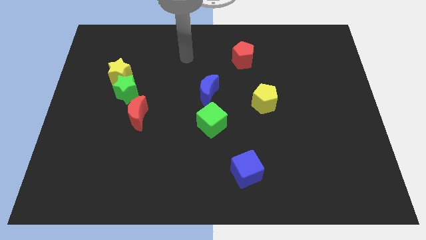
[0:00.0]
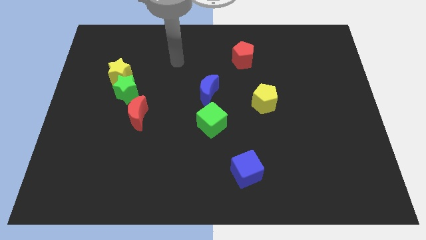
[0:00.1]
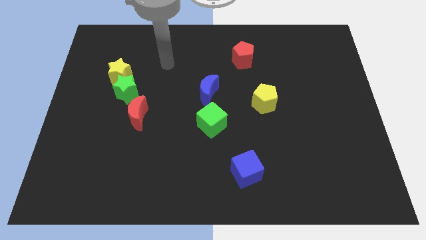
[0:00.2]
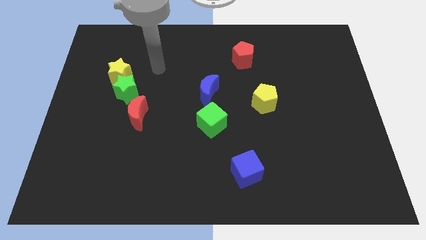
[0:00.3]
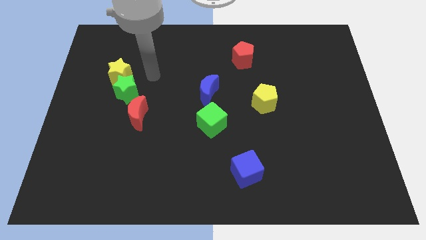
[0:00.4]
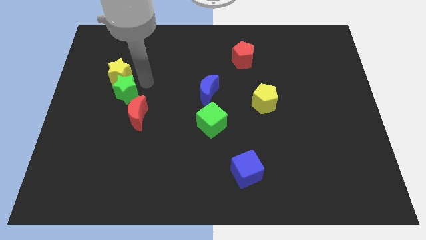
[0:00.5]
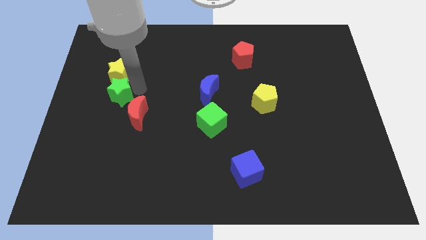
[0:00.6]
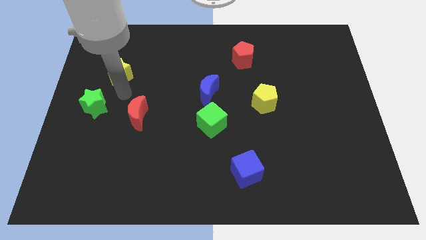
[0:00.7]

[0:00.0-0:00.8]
separate the yellow star from the green star

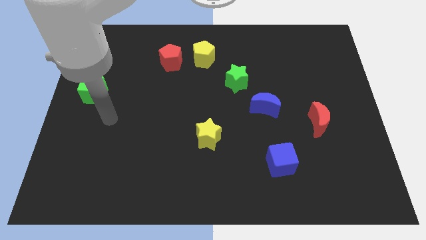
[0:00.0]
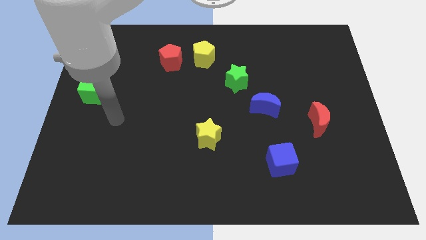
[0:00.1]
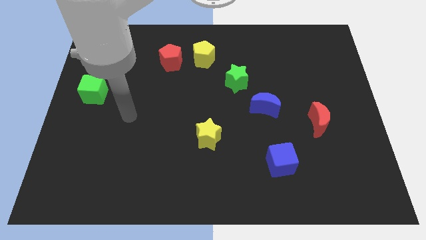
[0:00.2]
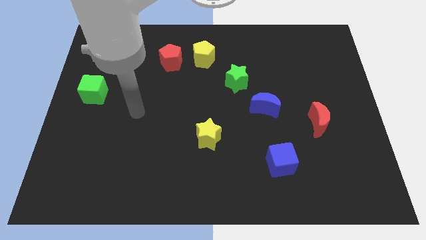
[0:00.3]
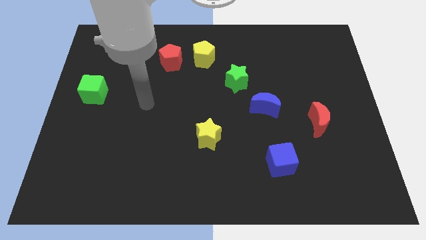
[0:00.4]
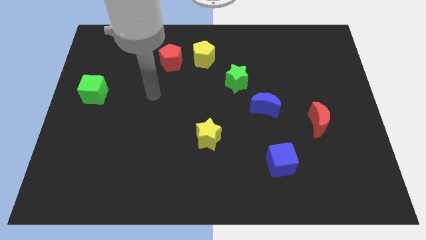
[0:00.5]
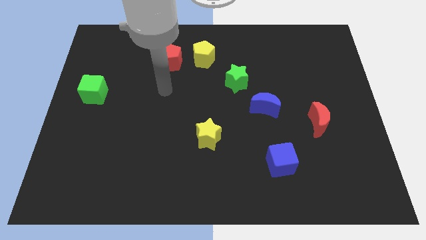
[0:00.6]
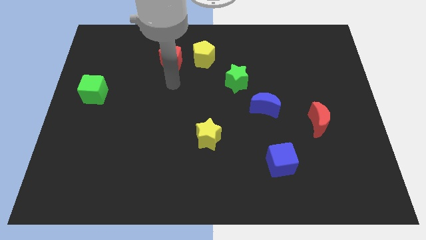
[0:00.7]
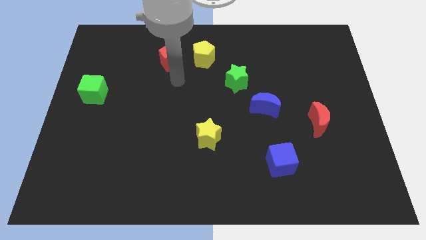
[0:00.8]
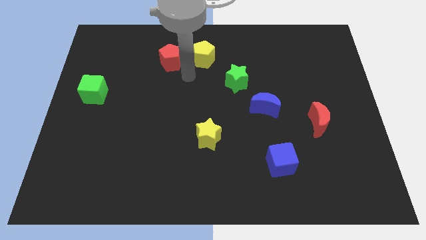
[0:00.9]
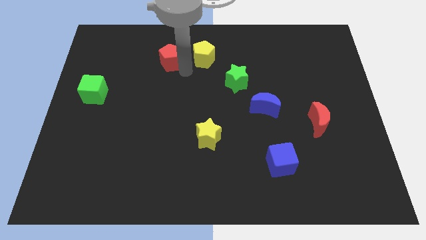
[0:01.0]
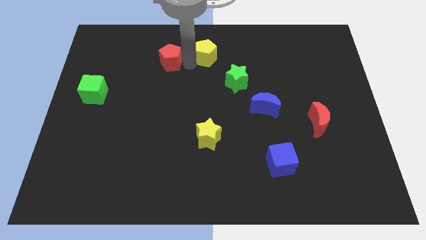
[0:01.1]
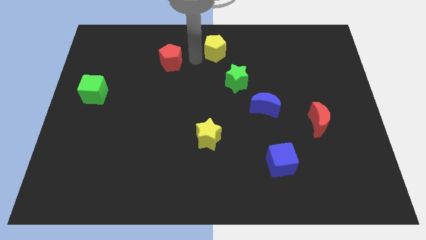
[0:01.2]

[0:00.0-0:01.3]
pull the red pentagon apart from the yellow pentagon

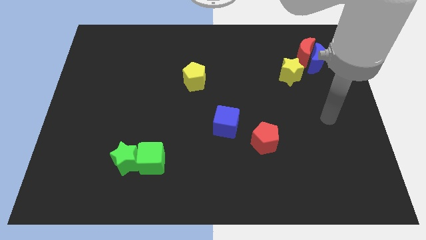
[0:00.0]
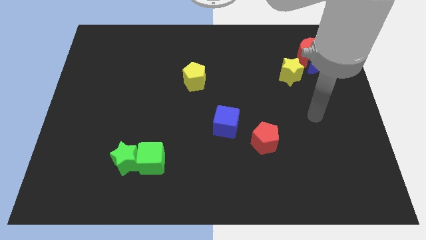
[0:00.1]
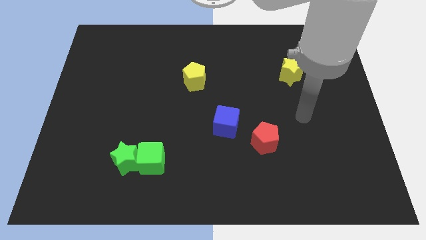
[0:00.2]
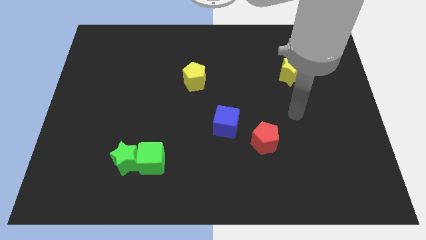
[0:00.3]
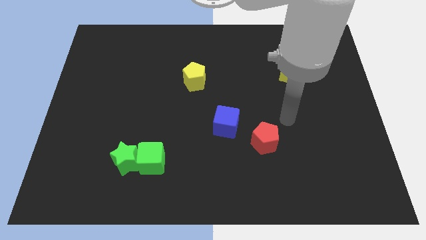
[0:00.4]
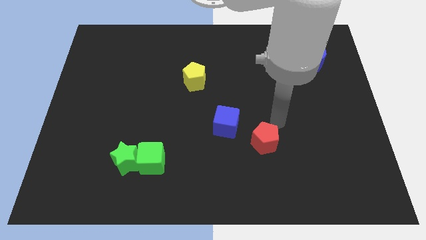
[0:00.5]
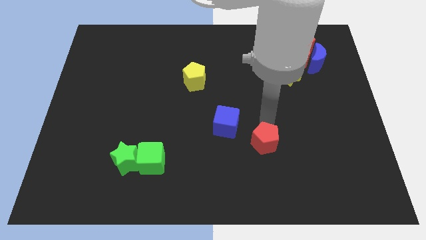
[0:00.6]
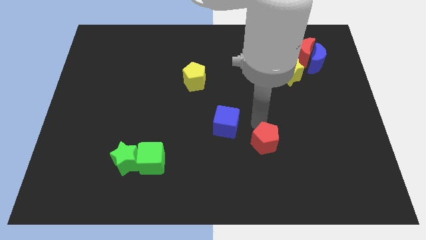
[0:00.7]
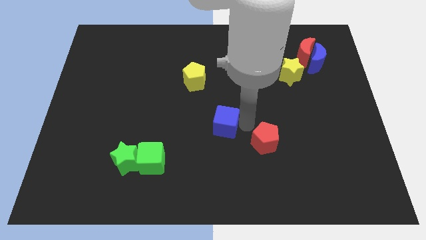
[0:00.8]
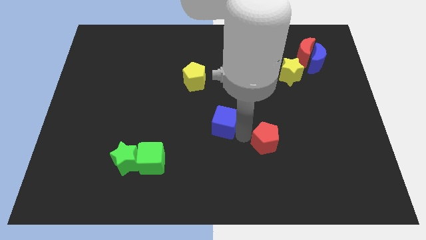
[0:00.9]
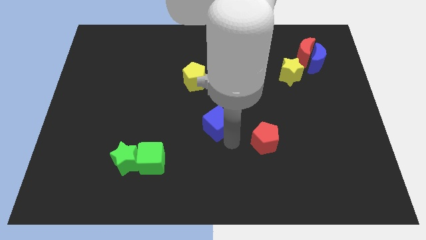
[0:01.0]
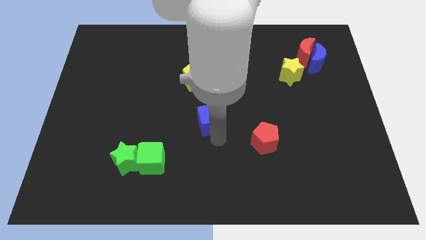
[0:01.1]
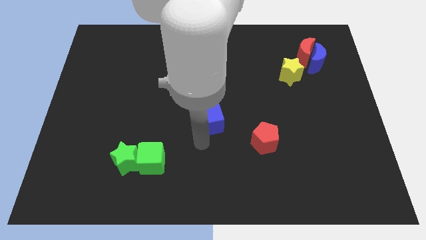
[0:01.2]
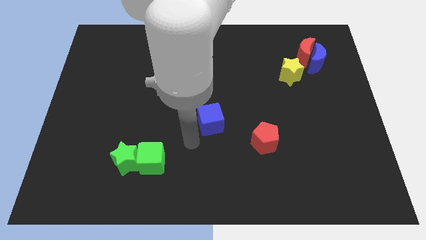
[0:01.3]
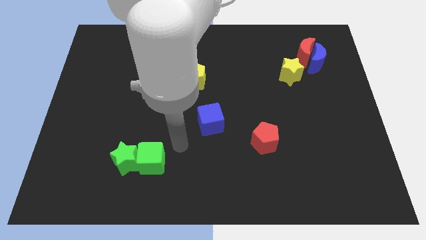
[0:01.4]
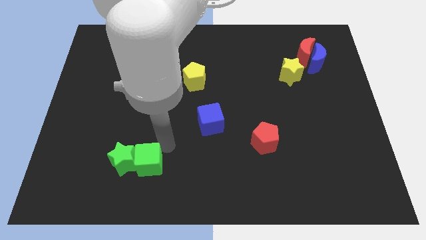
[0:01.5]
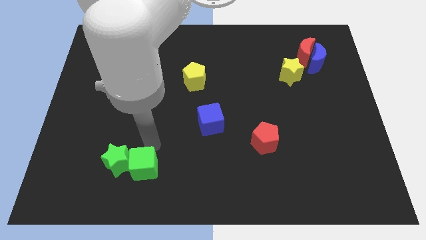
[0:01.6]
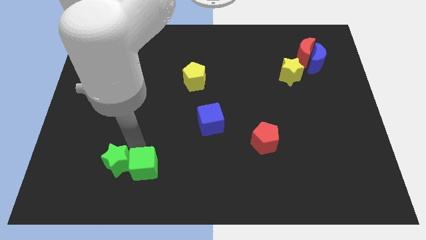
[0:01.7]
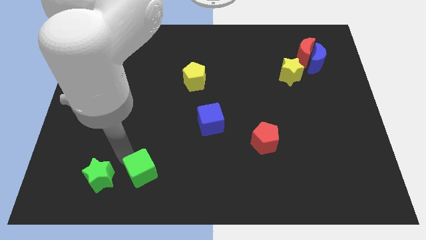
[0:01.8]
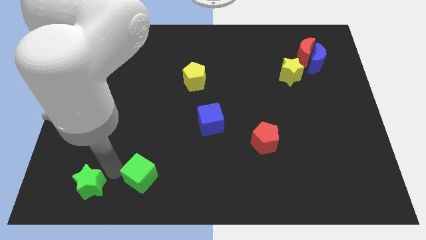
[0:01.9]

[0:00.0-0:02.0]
move the green cube away from the green star

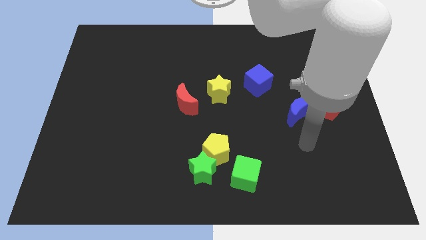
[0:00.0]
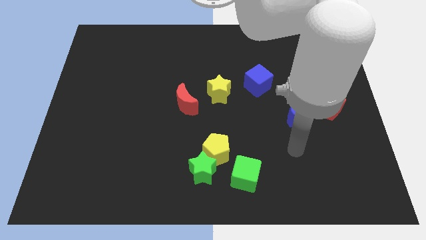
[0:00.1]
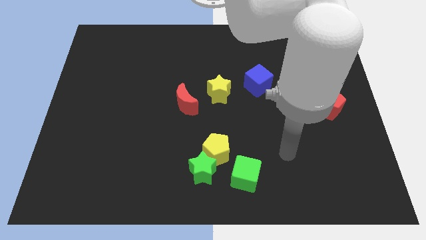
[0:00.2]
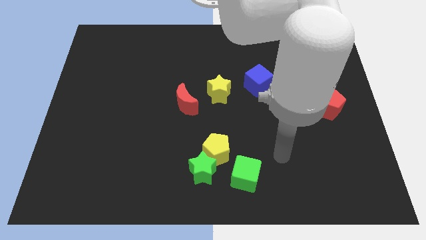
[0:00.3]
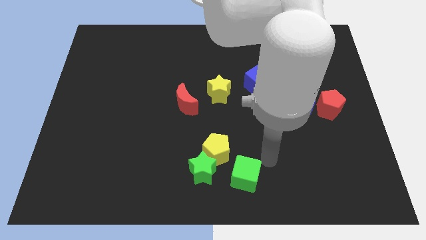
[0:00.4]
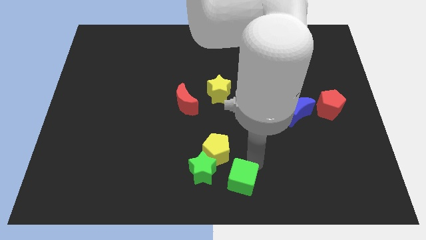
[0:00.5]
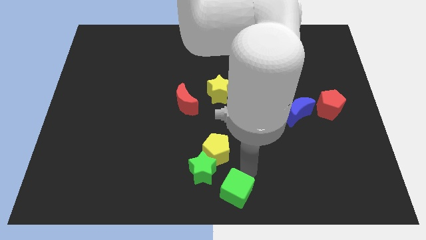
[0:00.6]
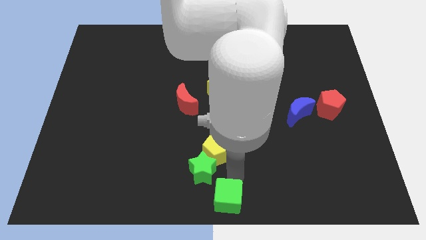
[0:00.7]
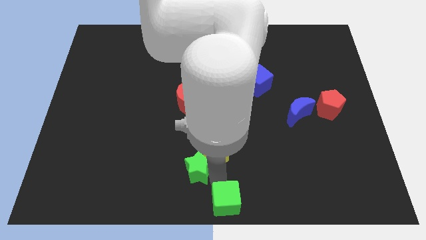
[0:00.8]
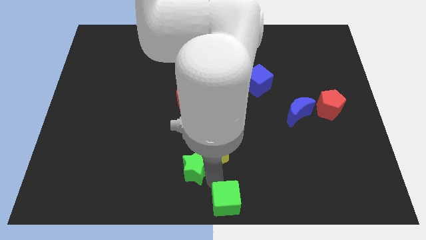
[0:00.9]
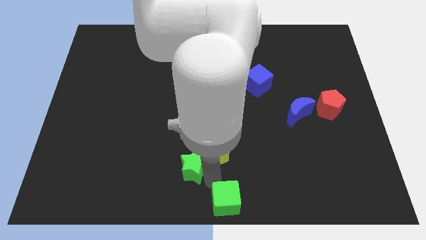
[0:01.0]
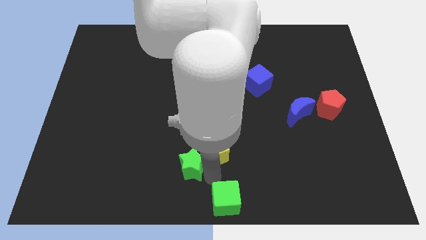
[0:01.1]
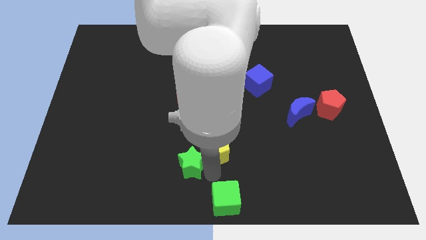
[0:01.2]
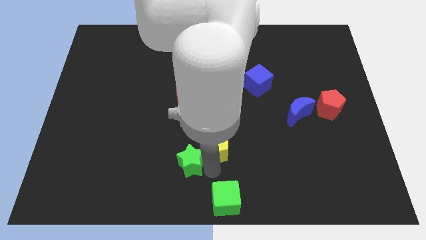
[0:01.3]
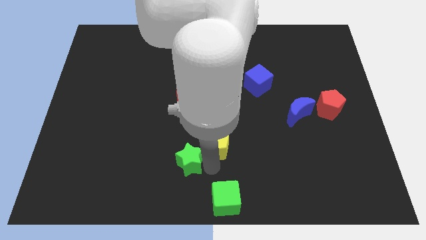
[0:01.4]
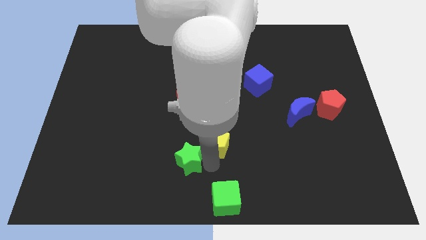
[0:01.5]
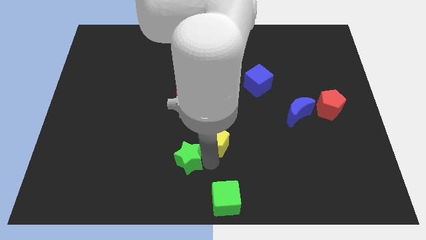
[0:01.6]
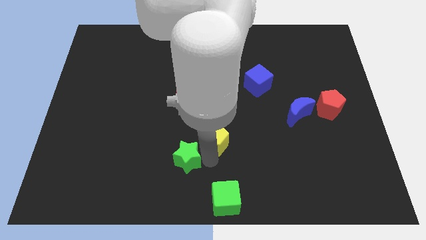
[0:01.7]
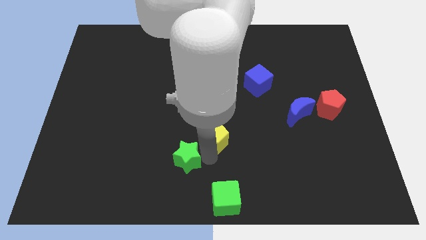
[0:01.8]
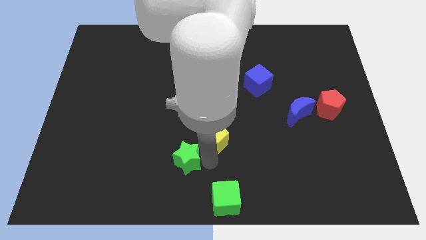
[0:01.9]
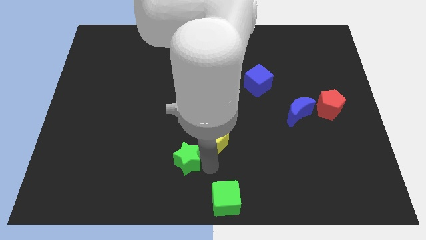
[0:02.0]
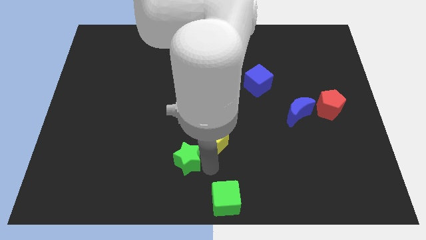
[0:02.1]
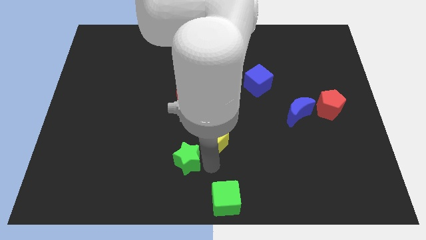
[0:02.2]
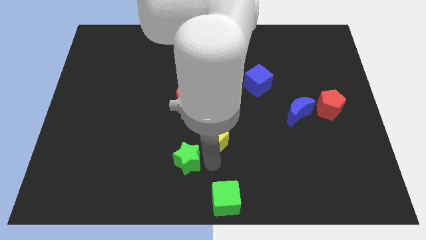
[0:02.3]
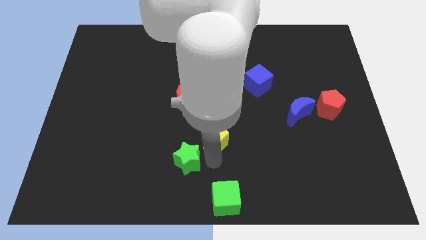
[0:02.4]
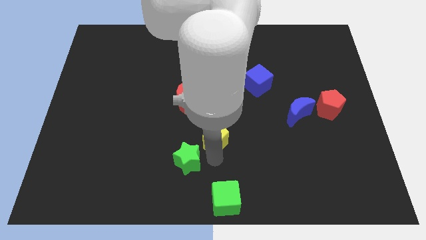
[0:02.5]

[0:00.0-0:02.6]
separate the yellow pentagon from the green star and green cube

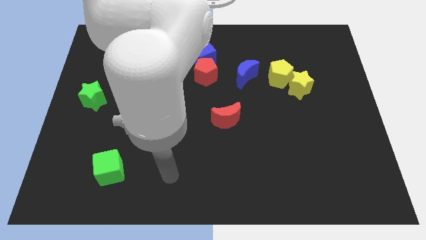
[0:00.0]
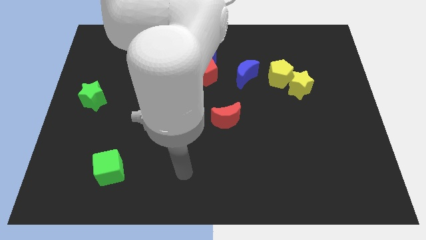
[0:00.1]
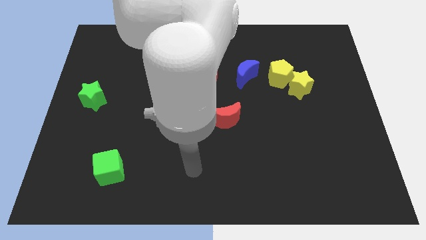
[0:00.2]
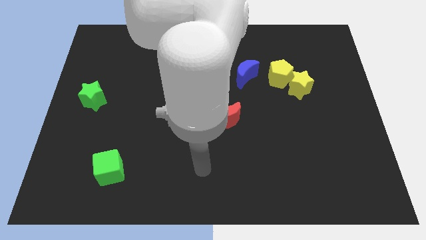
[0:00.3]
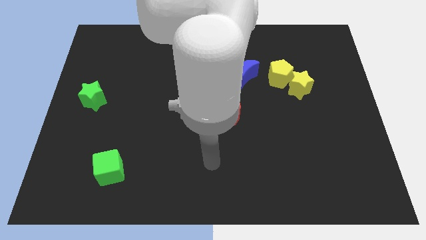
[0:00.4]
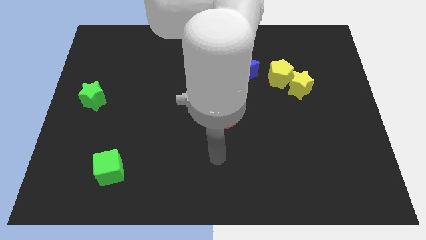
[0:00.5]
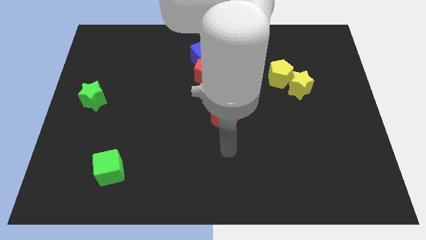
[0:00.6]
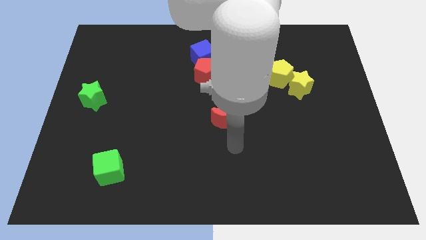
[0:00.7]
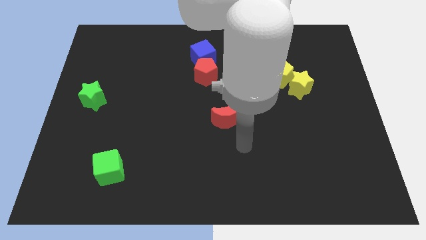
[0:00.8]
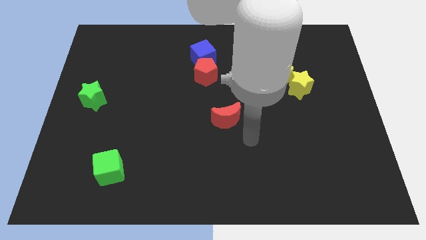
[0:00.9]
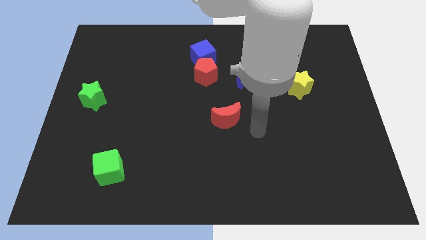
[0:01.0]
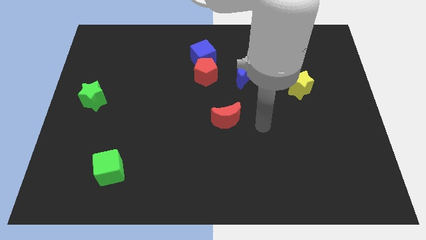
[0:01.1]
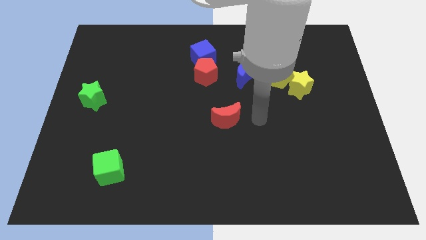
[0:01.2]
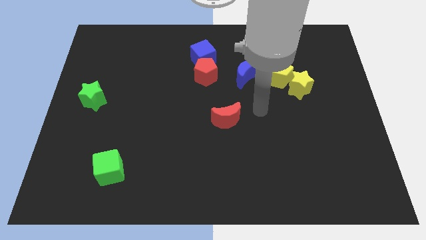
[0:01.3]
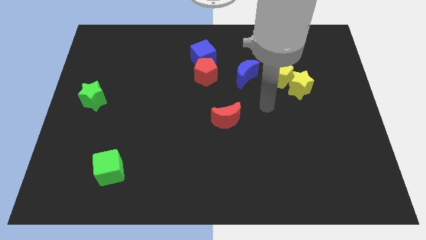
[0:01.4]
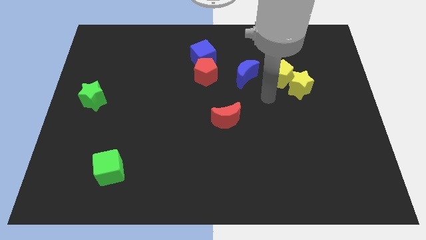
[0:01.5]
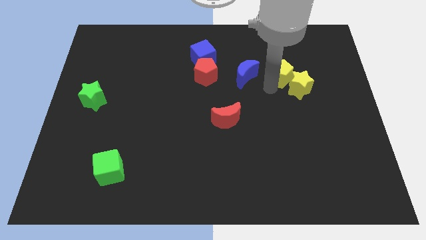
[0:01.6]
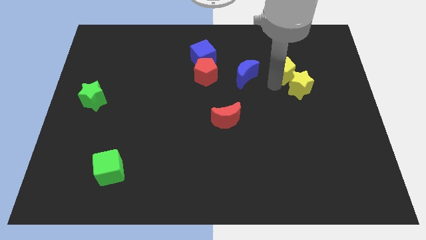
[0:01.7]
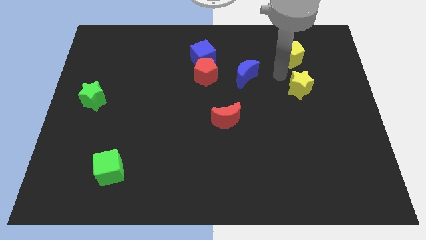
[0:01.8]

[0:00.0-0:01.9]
move the yellow star away from the yellow pentagon

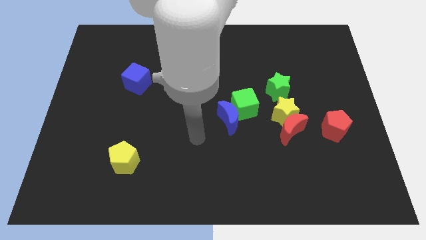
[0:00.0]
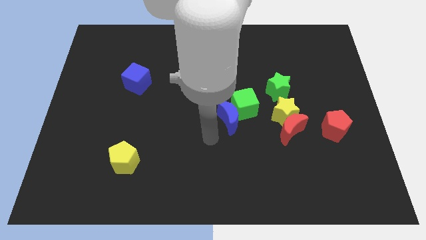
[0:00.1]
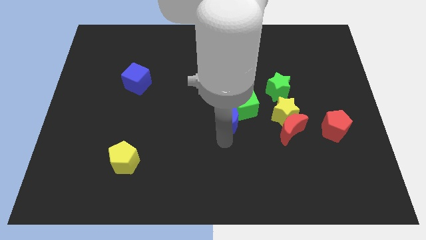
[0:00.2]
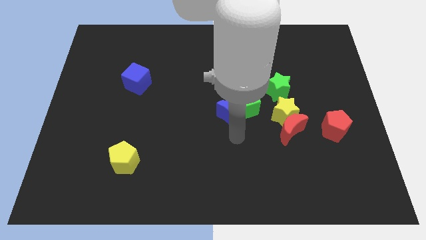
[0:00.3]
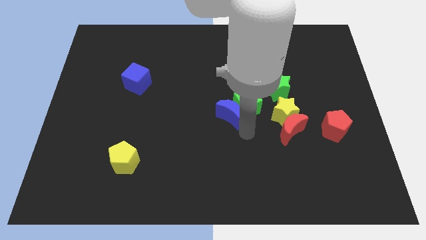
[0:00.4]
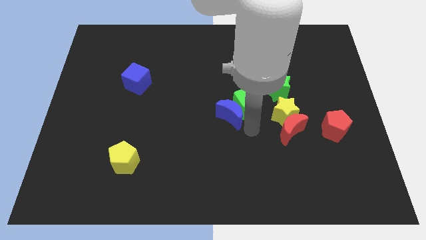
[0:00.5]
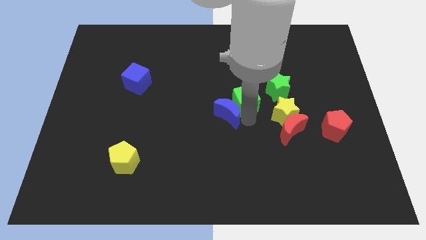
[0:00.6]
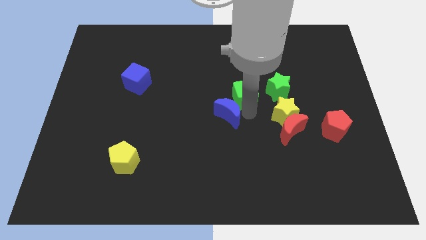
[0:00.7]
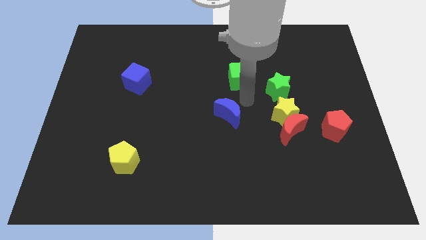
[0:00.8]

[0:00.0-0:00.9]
pull the blue moon apart from the green cube
